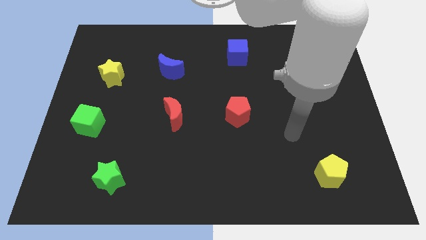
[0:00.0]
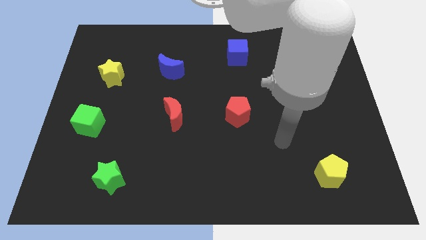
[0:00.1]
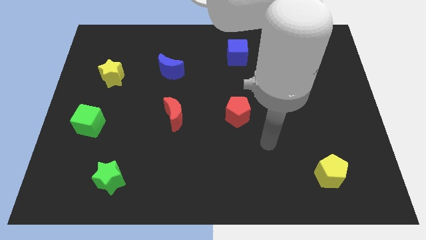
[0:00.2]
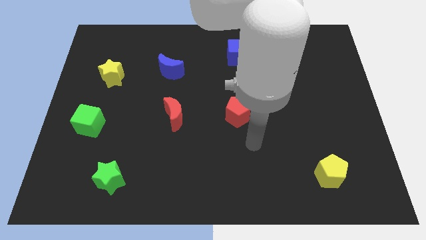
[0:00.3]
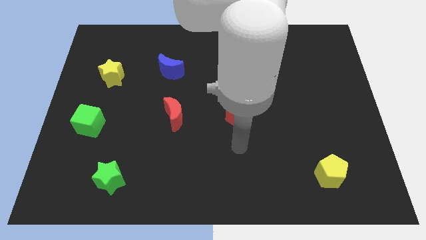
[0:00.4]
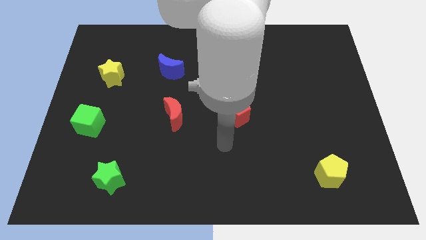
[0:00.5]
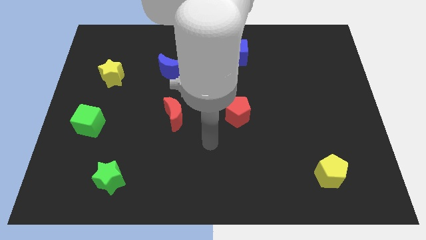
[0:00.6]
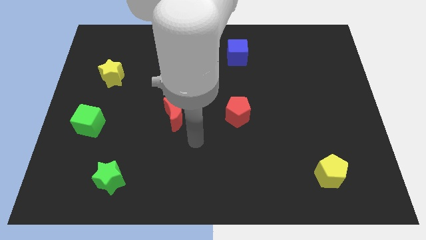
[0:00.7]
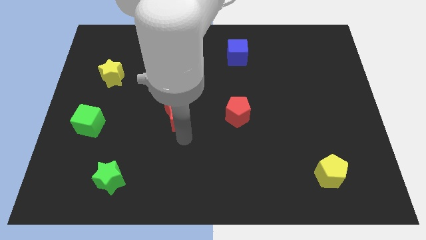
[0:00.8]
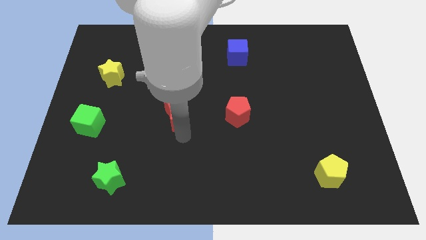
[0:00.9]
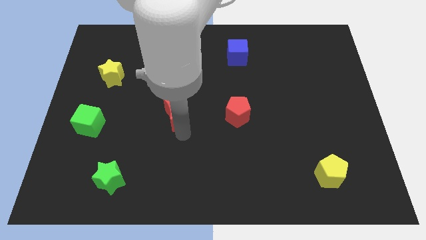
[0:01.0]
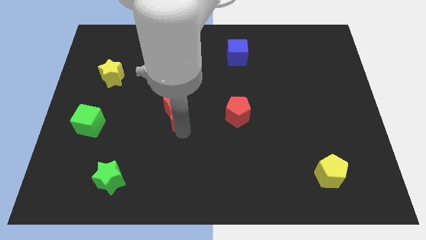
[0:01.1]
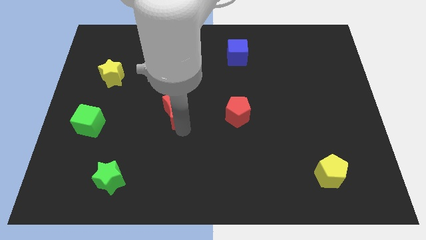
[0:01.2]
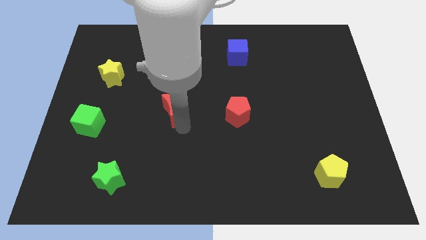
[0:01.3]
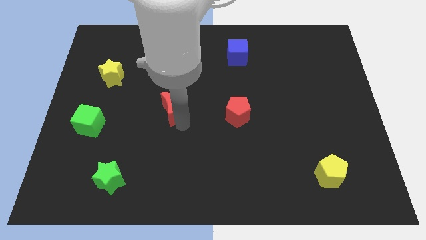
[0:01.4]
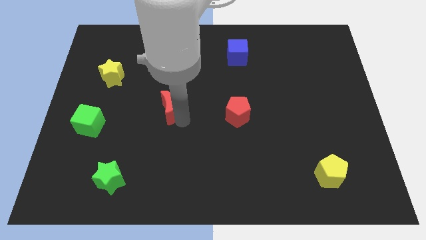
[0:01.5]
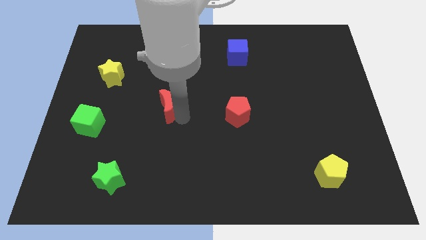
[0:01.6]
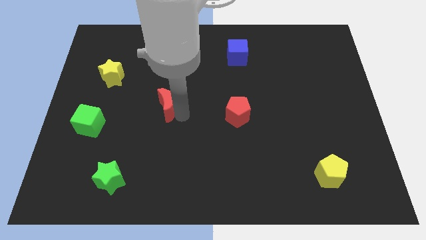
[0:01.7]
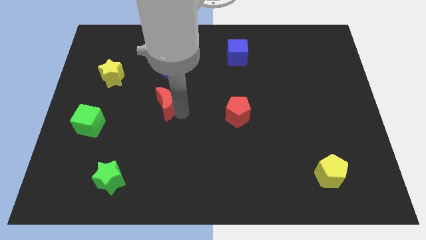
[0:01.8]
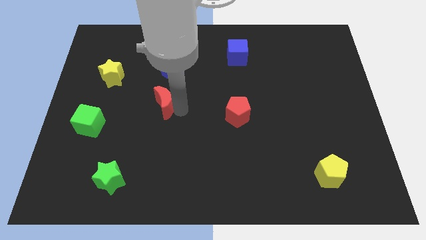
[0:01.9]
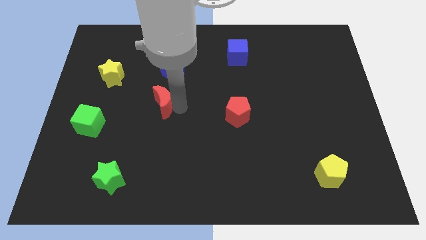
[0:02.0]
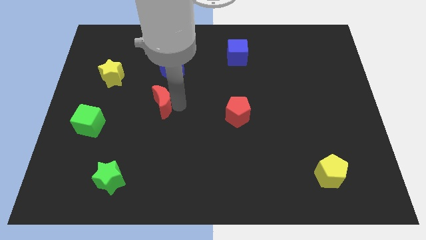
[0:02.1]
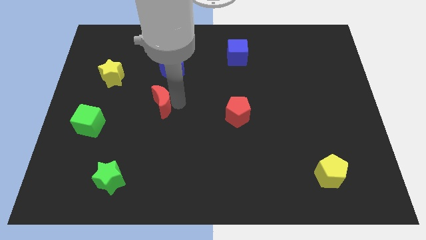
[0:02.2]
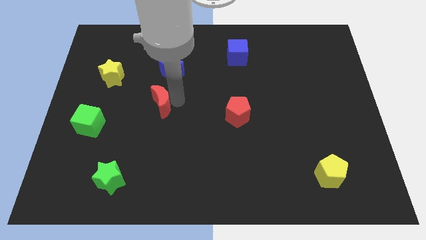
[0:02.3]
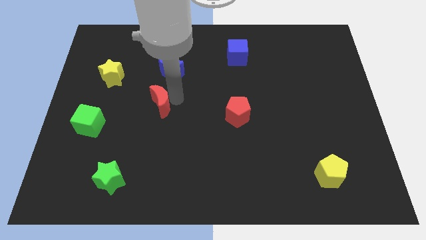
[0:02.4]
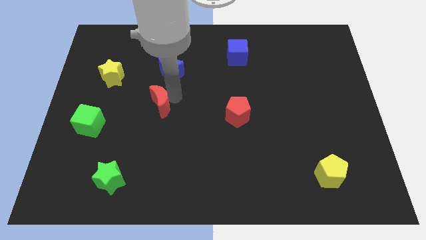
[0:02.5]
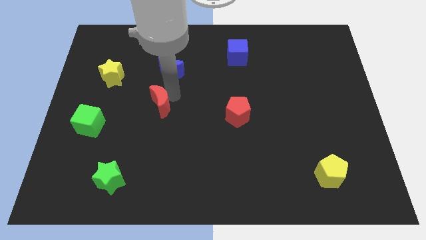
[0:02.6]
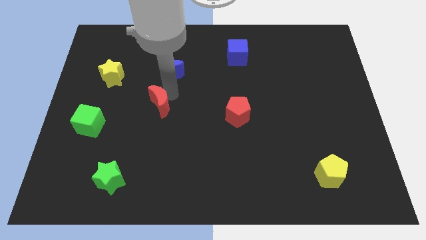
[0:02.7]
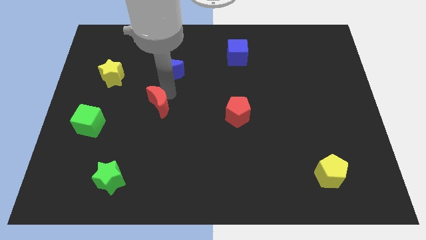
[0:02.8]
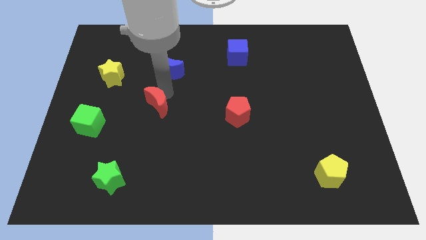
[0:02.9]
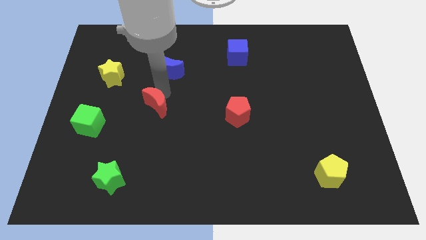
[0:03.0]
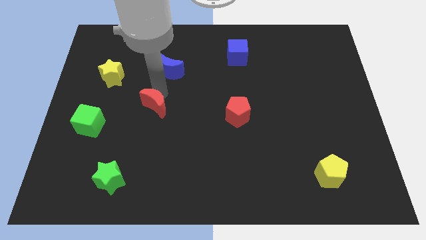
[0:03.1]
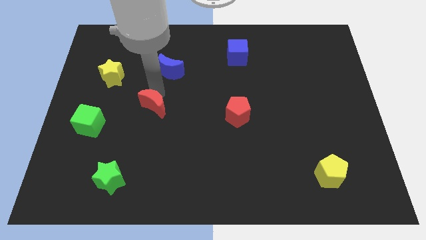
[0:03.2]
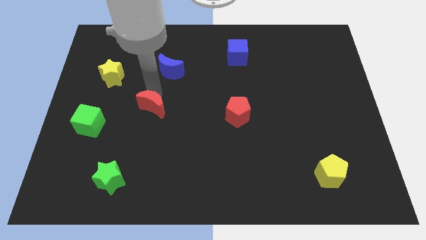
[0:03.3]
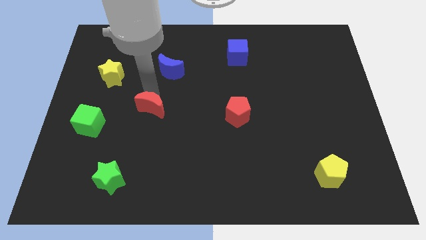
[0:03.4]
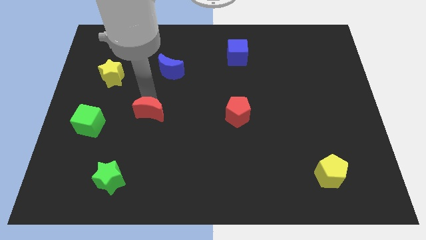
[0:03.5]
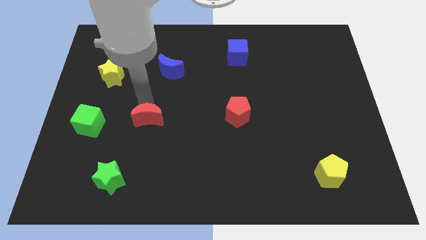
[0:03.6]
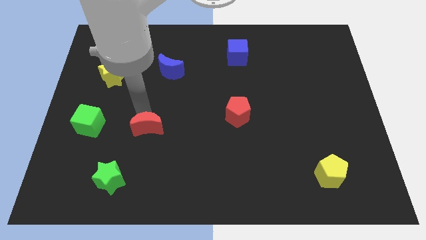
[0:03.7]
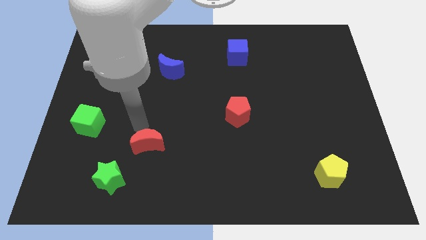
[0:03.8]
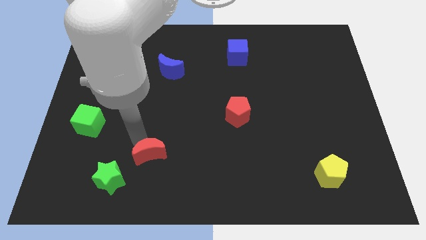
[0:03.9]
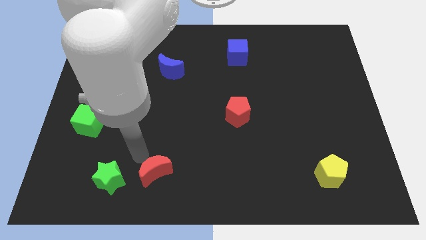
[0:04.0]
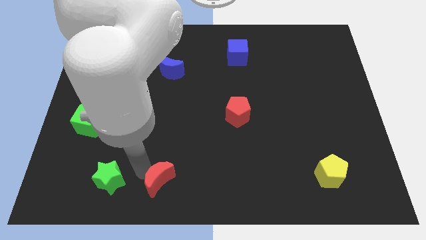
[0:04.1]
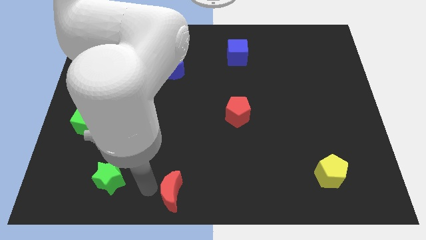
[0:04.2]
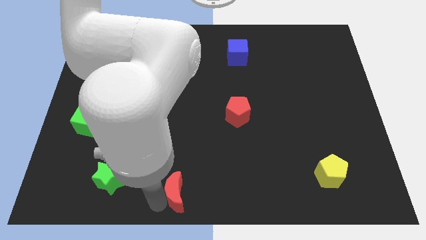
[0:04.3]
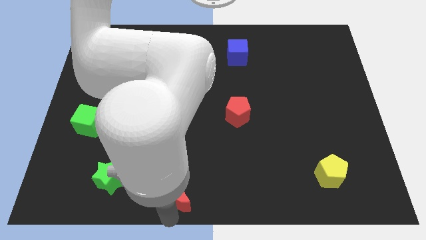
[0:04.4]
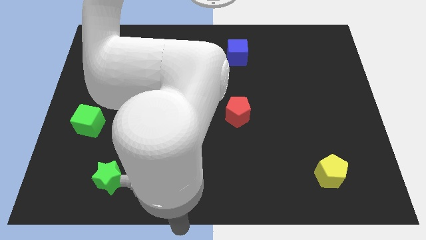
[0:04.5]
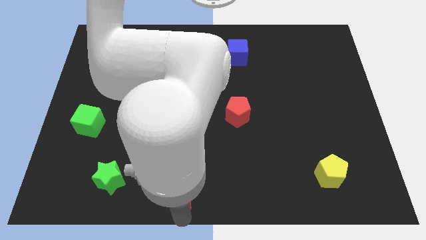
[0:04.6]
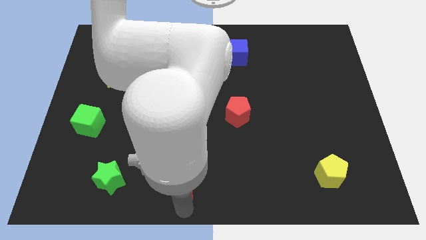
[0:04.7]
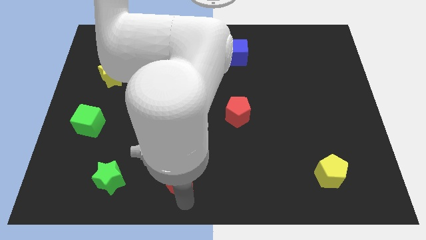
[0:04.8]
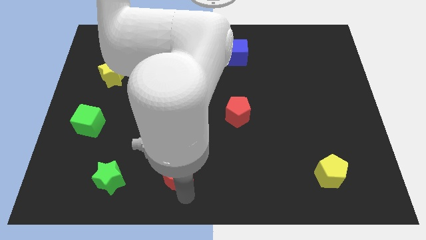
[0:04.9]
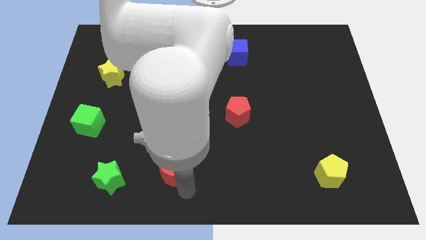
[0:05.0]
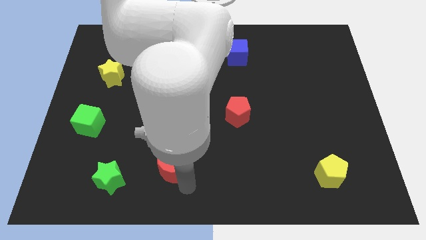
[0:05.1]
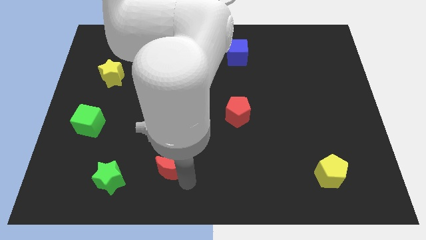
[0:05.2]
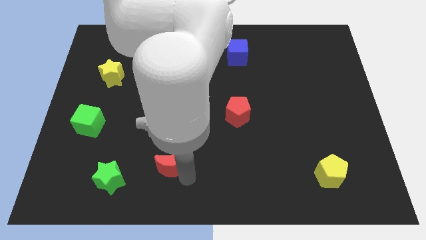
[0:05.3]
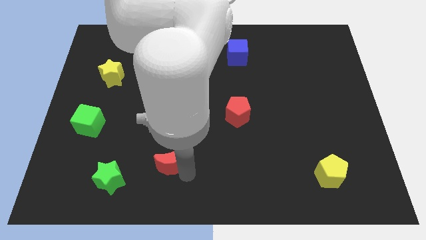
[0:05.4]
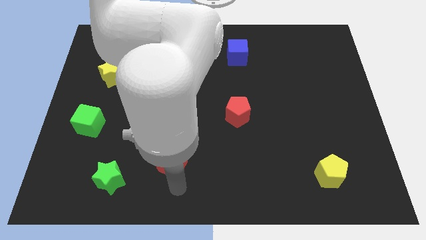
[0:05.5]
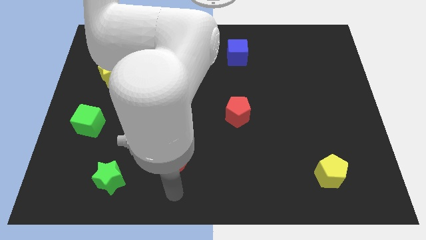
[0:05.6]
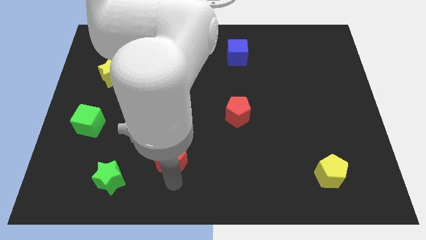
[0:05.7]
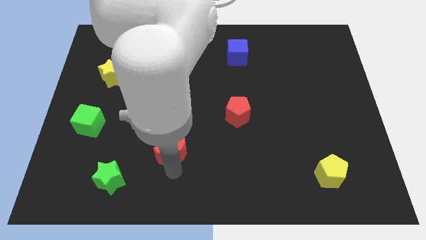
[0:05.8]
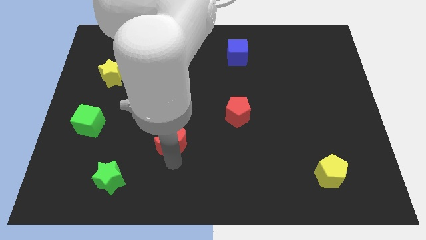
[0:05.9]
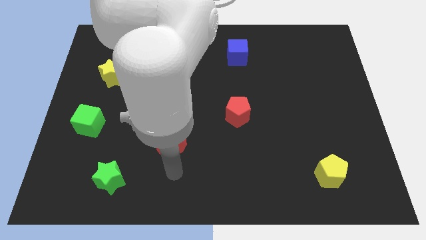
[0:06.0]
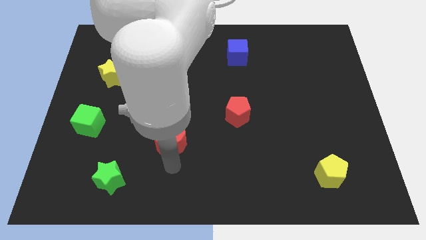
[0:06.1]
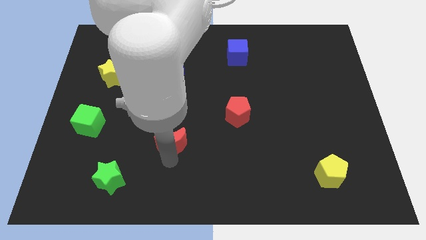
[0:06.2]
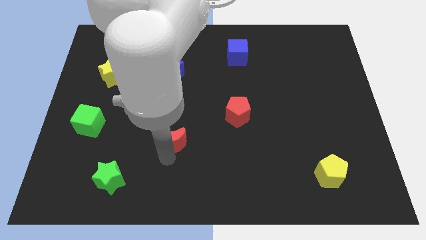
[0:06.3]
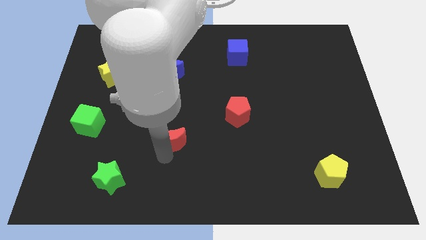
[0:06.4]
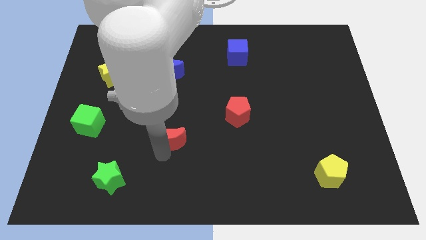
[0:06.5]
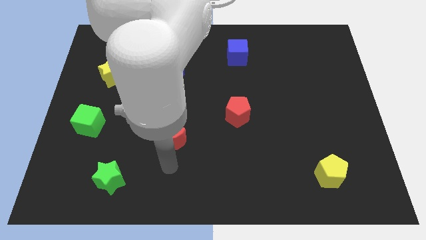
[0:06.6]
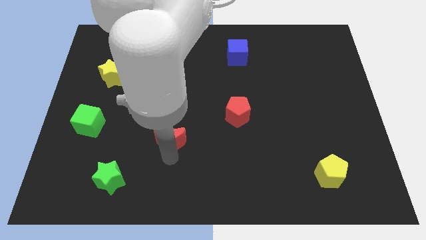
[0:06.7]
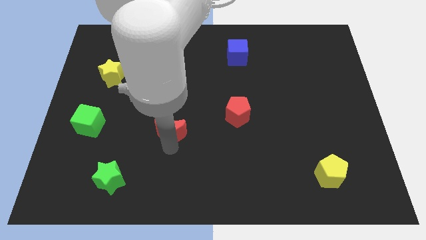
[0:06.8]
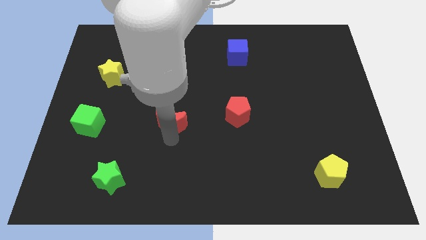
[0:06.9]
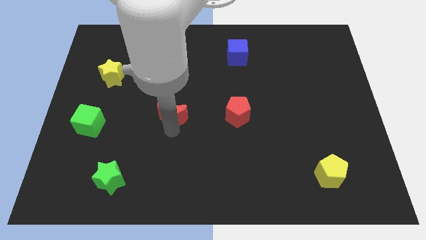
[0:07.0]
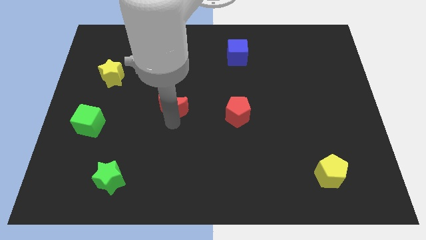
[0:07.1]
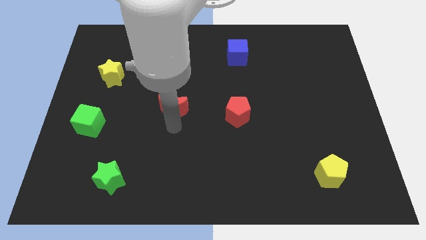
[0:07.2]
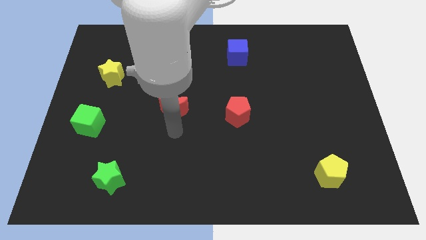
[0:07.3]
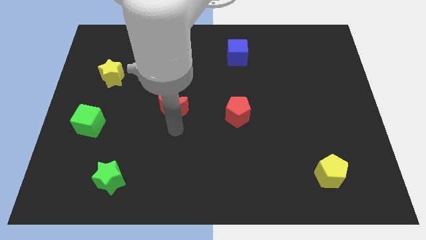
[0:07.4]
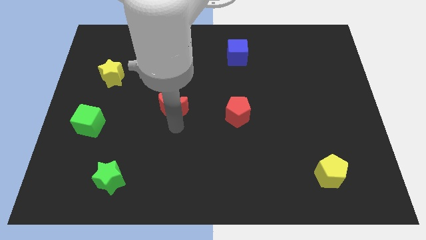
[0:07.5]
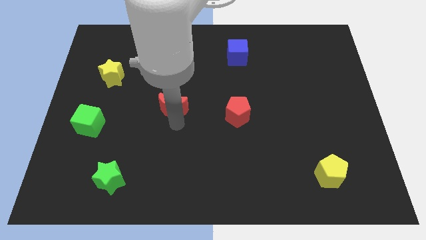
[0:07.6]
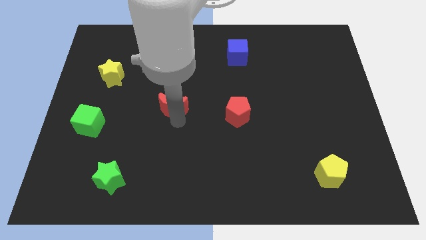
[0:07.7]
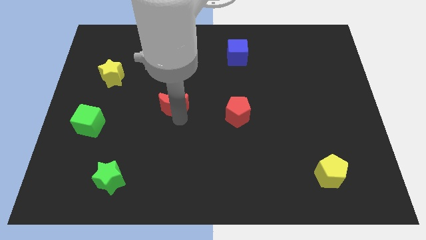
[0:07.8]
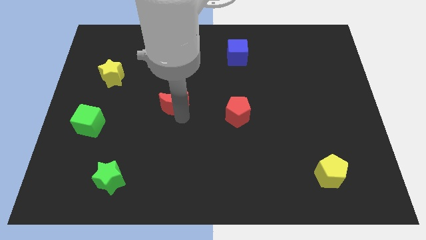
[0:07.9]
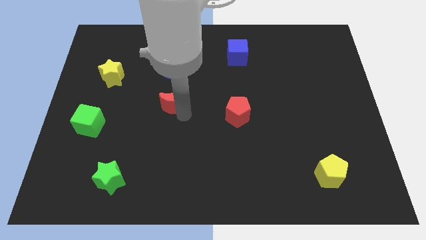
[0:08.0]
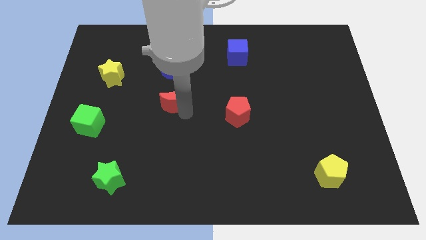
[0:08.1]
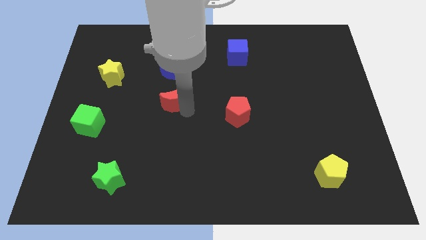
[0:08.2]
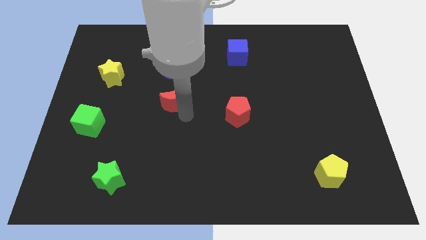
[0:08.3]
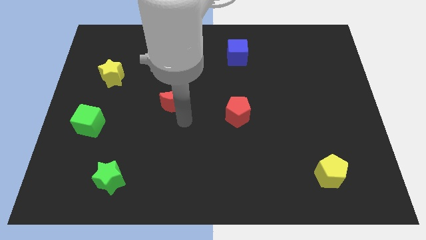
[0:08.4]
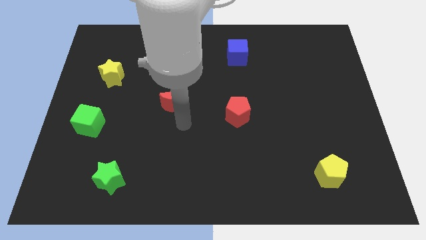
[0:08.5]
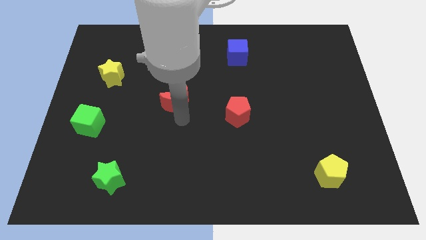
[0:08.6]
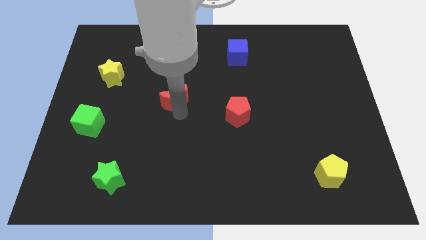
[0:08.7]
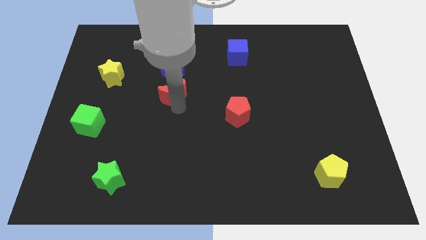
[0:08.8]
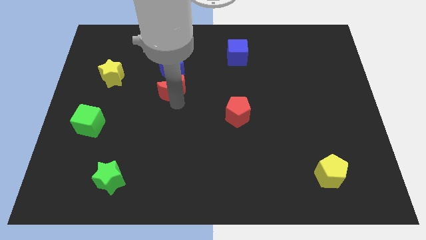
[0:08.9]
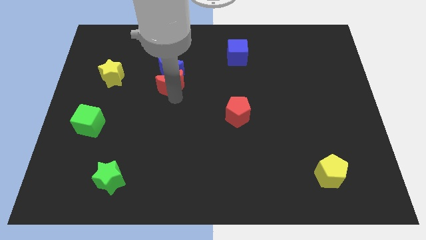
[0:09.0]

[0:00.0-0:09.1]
move the red moon towards the blue moon
